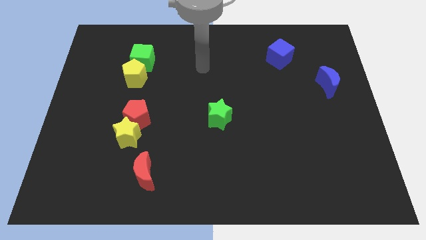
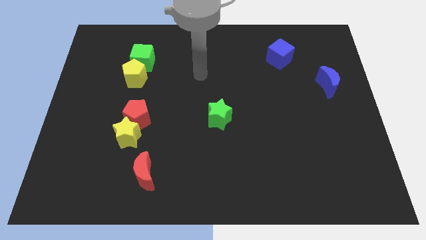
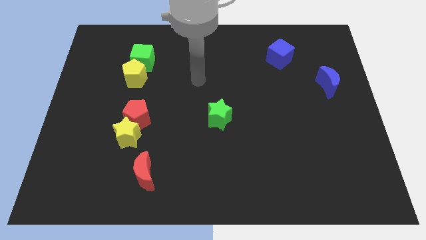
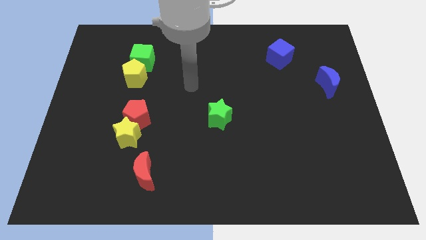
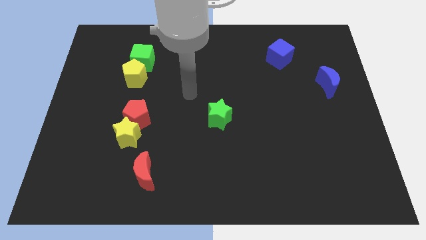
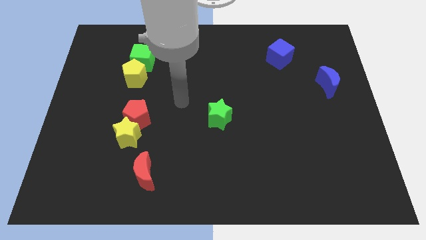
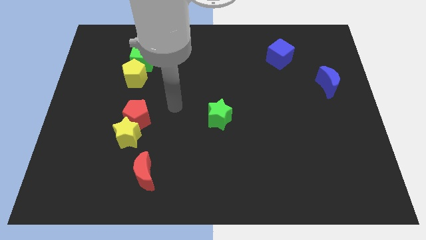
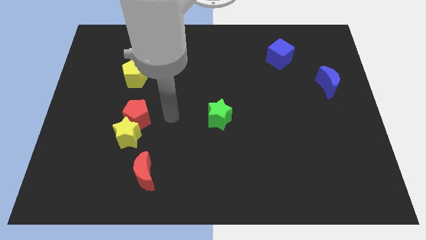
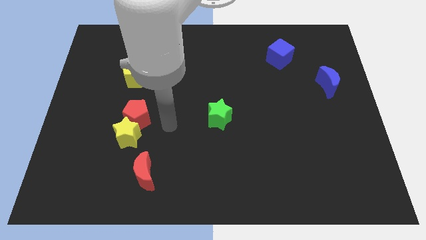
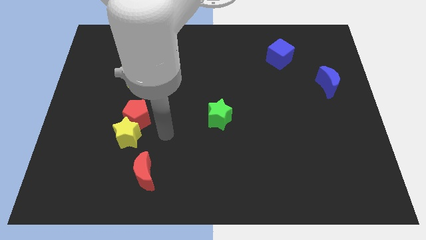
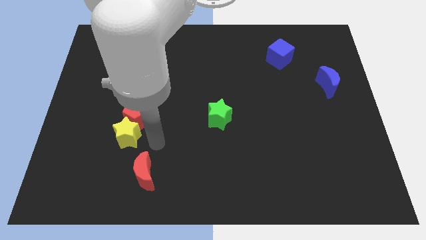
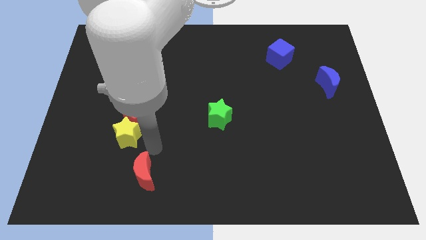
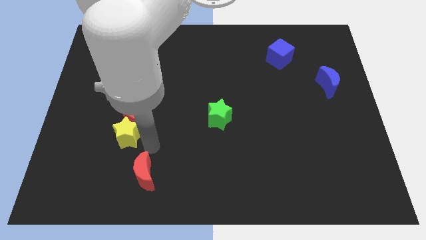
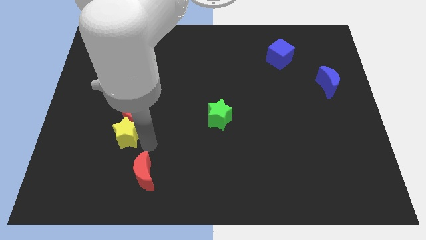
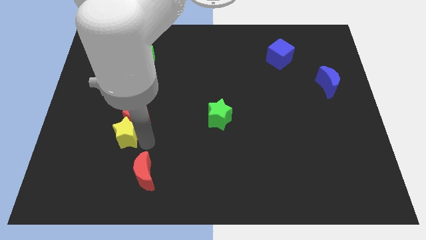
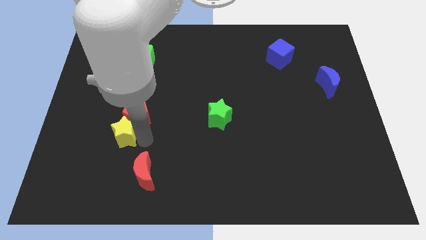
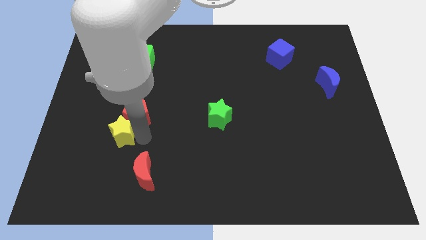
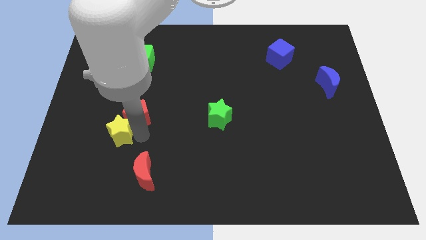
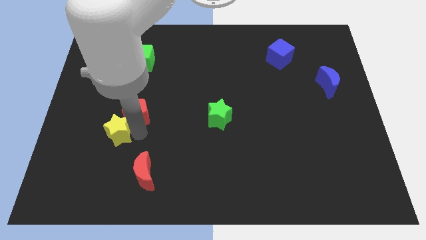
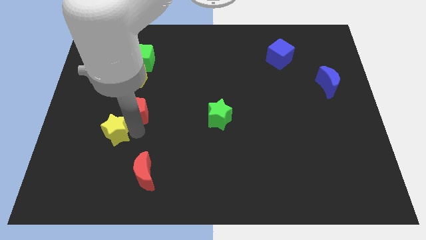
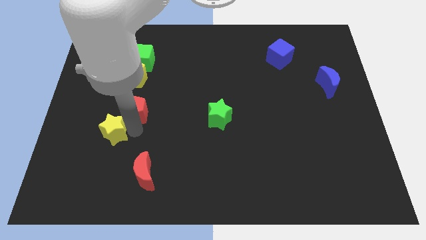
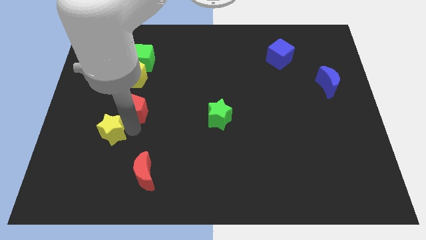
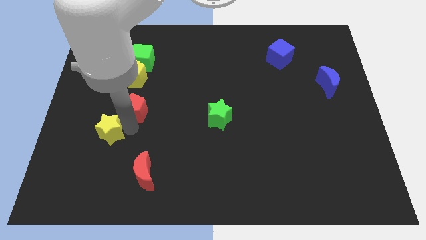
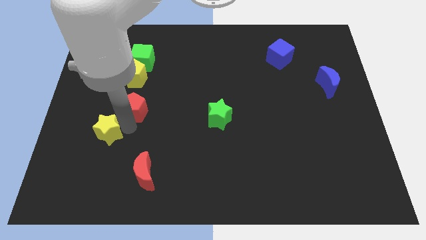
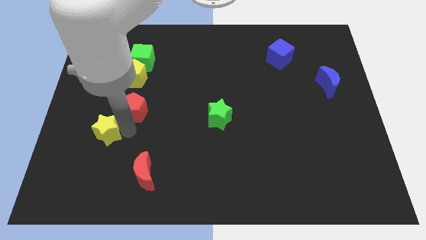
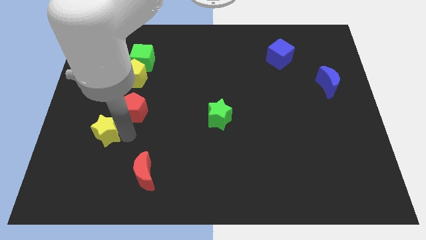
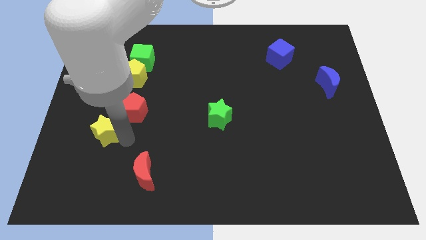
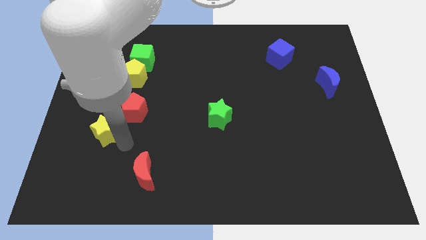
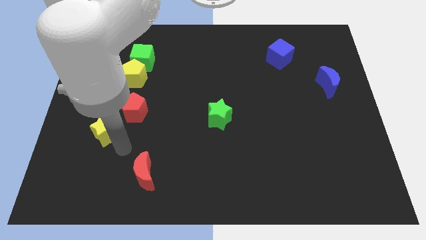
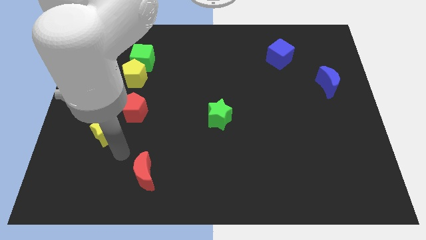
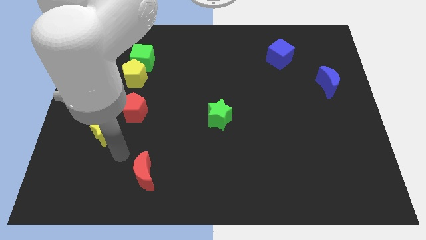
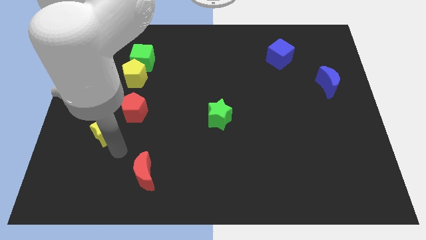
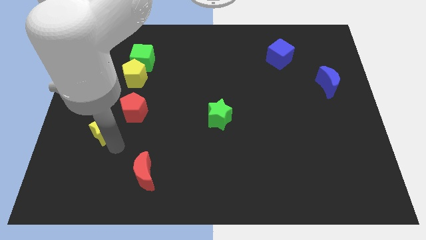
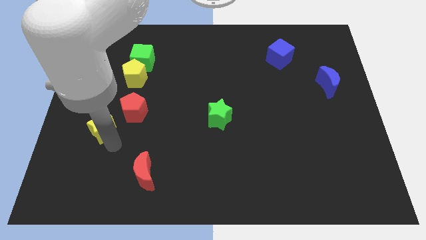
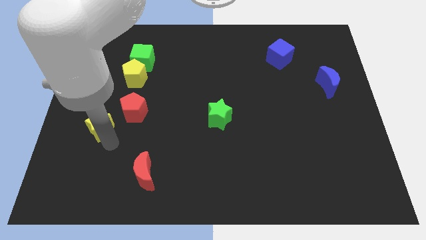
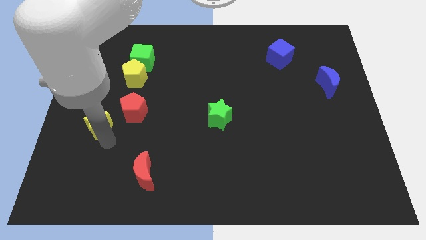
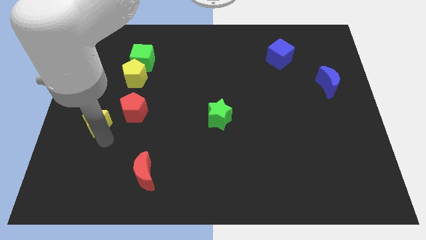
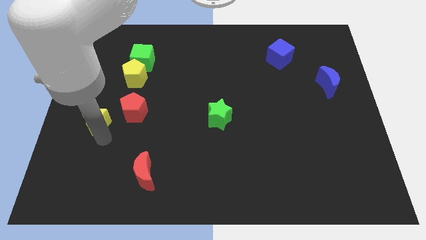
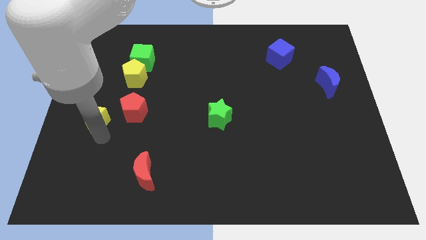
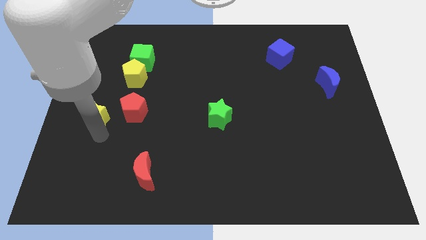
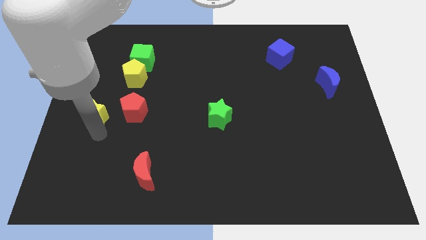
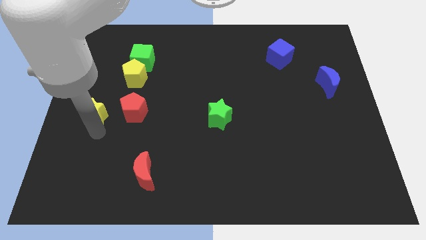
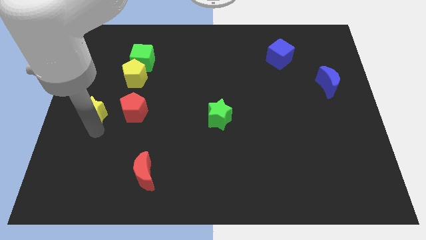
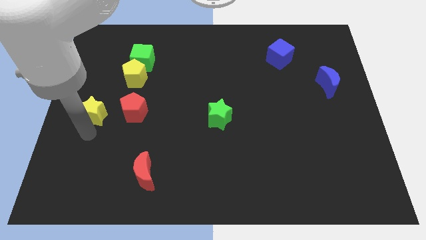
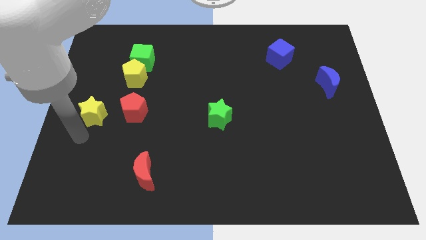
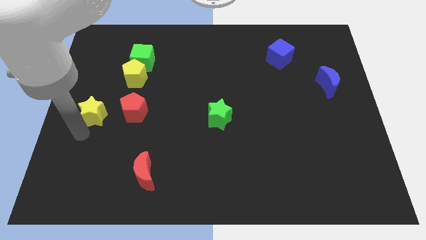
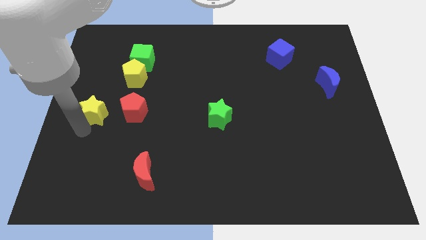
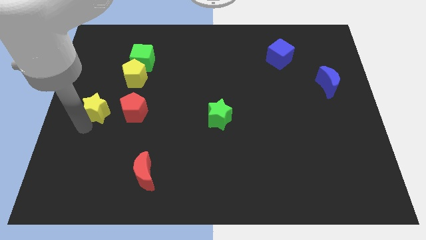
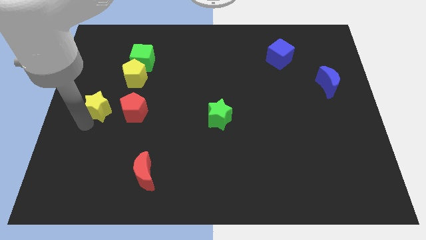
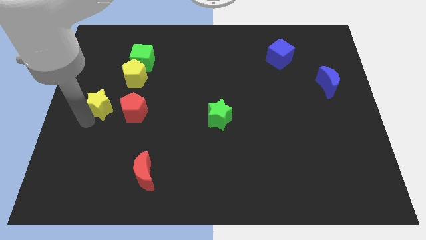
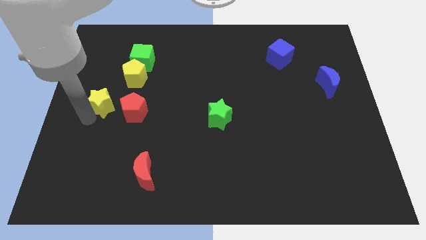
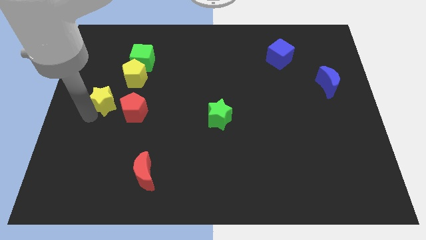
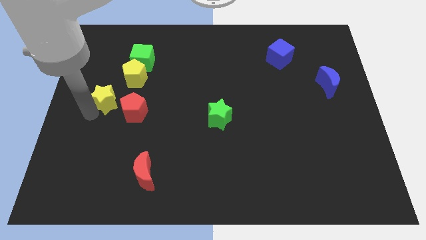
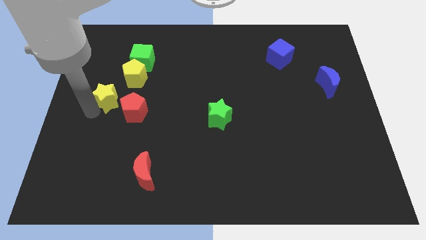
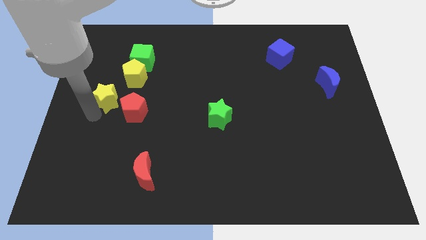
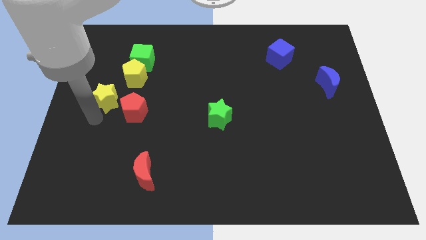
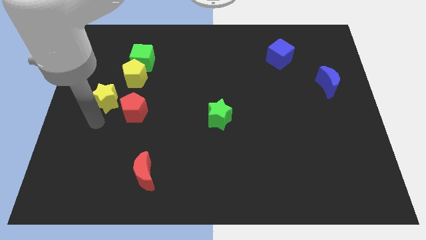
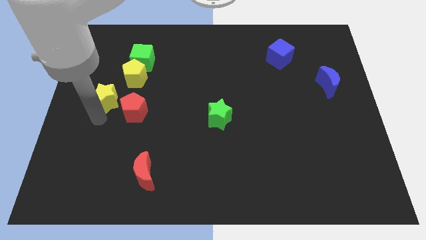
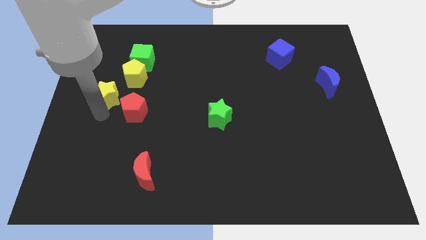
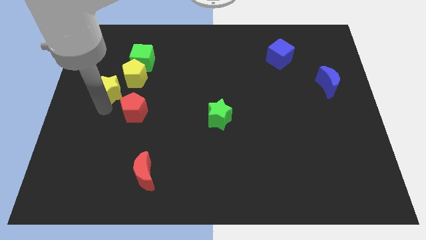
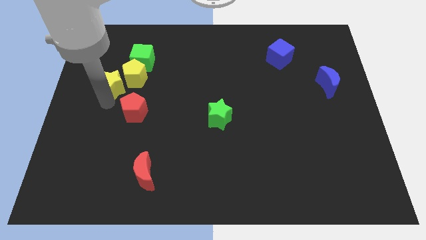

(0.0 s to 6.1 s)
slide the yellow star diagonally down and to the left of the green cube

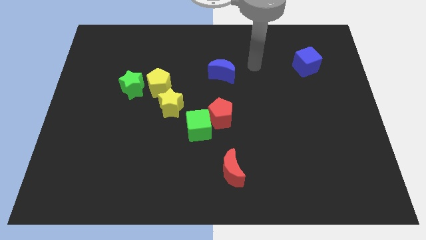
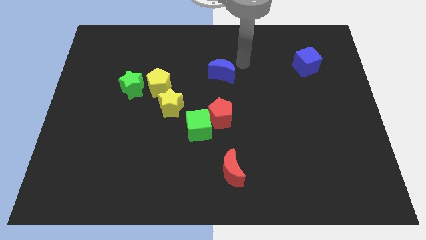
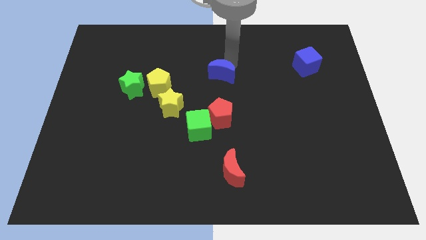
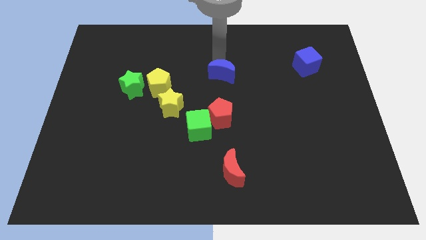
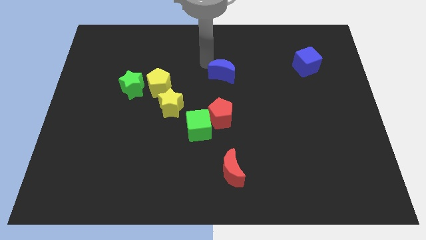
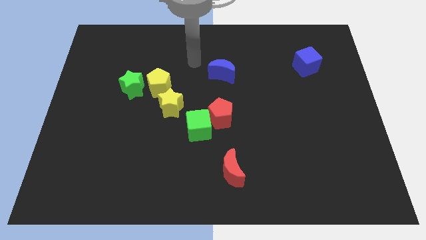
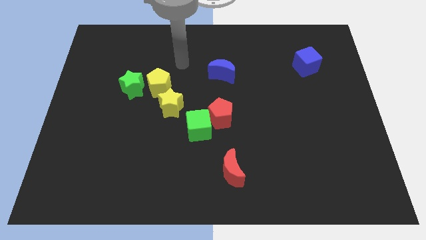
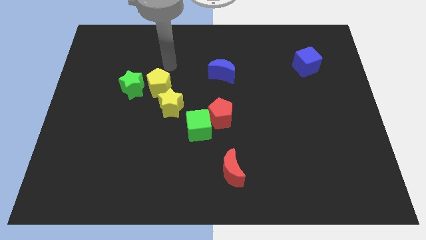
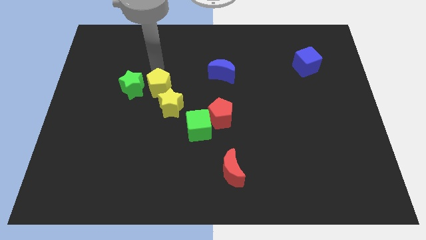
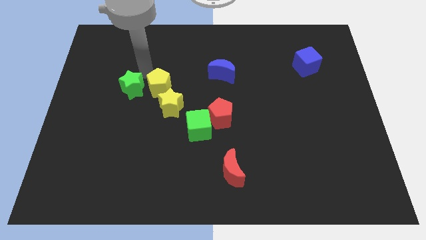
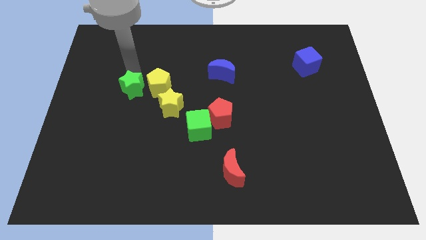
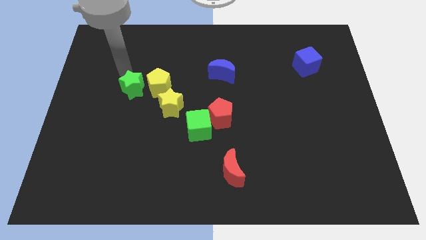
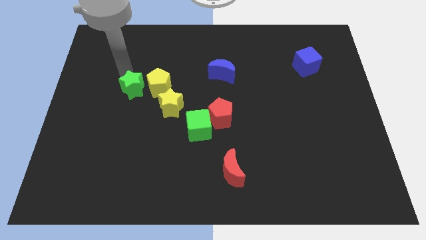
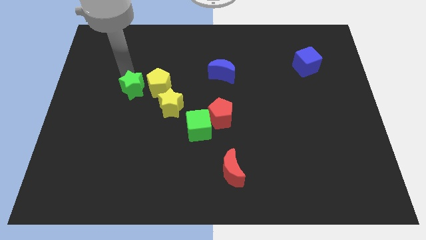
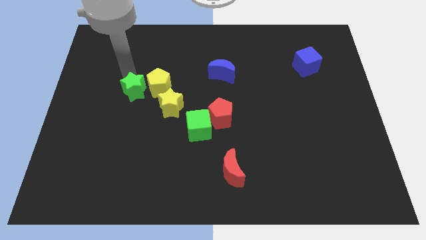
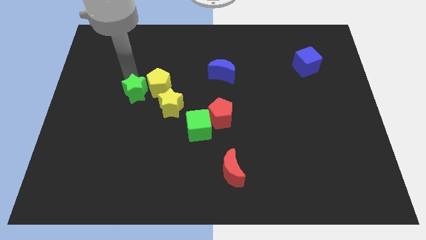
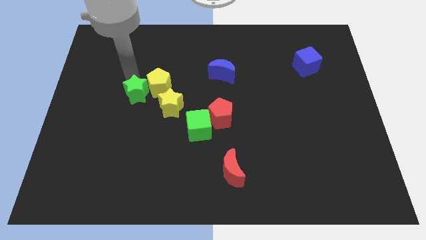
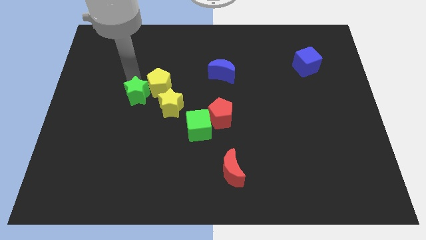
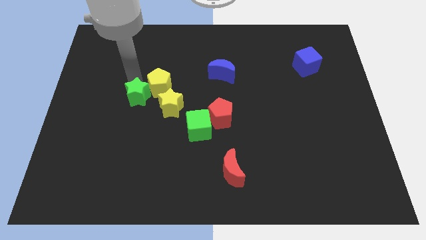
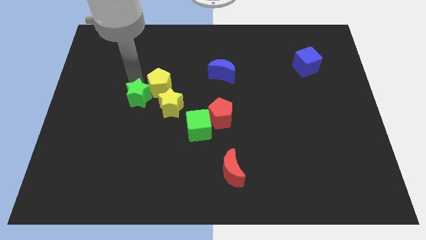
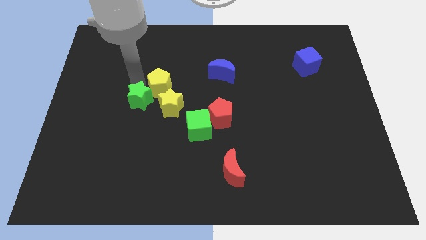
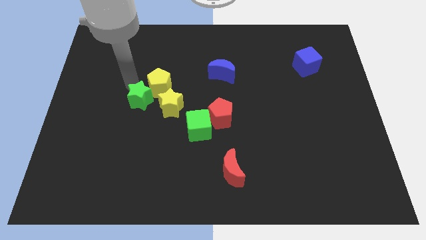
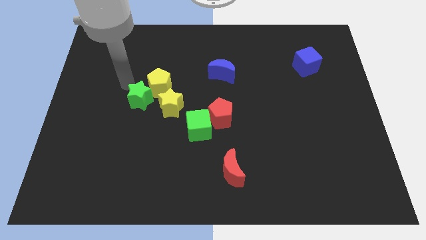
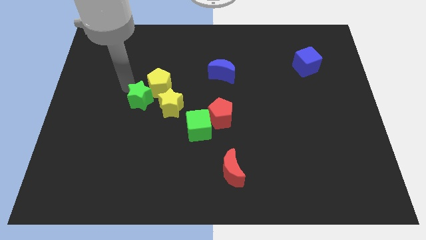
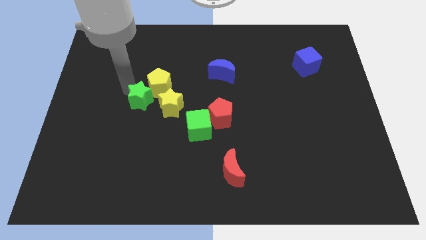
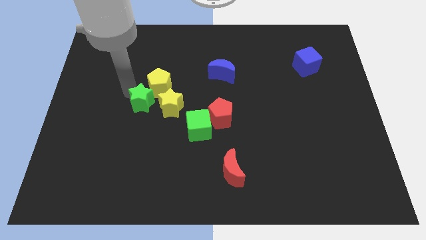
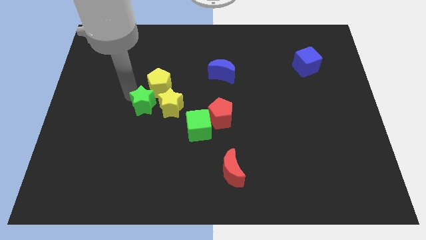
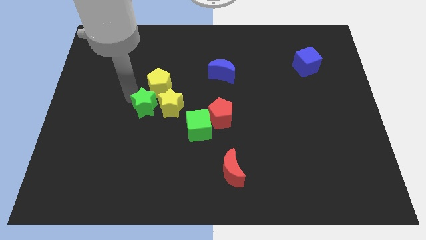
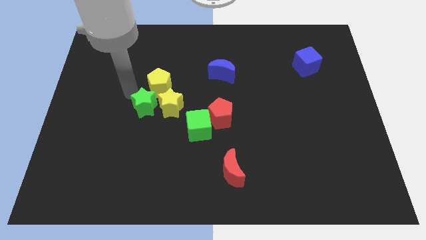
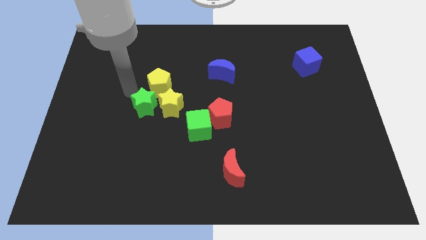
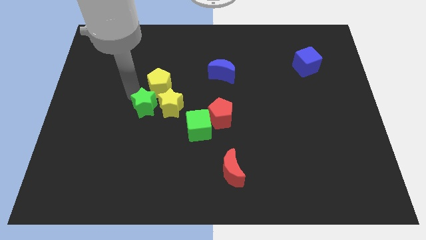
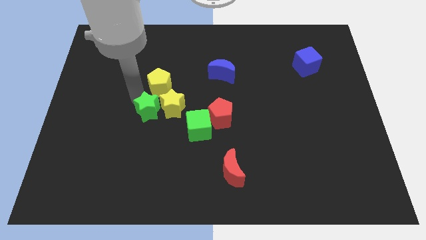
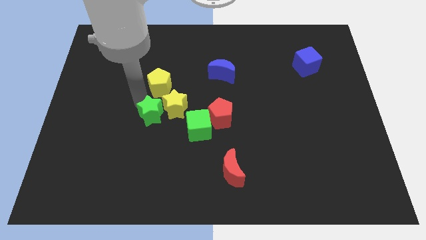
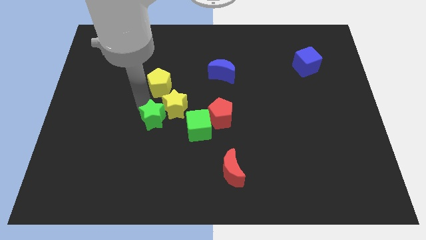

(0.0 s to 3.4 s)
slide the green star to the bottom of the yellow star
